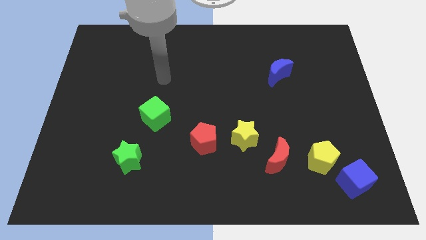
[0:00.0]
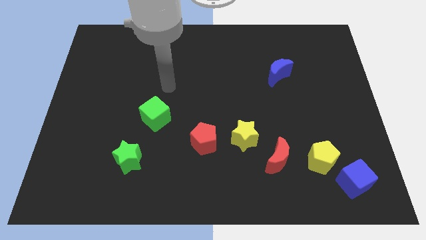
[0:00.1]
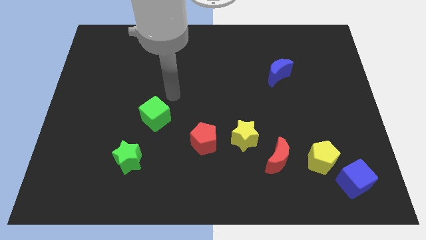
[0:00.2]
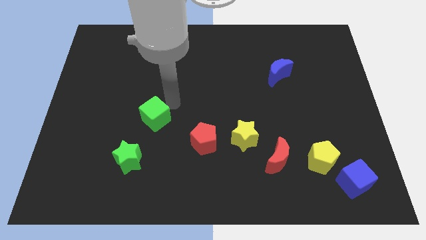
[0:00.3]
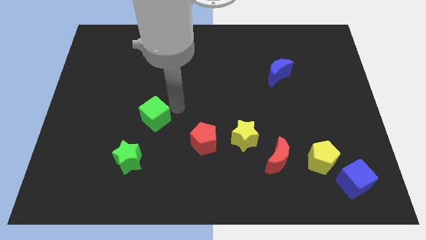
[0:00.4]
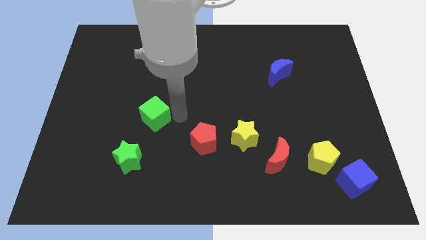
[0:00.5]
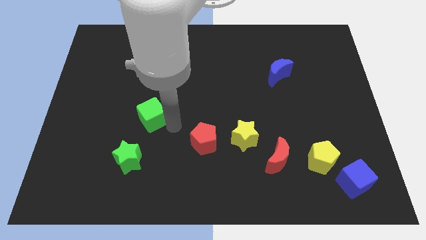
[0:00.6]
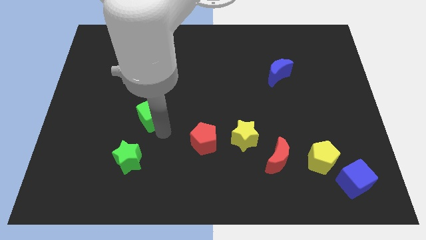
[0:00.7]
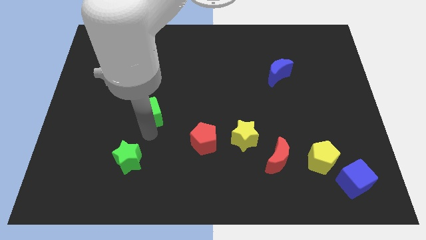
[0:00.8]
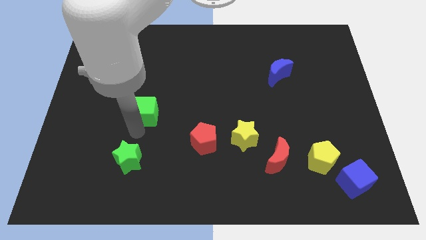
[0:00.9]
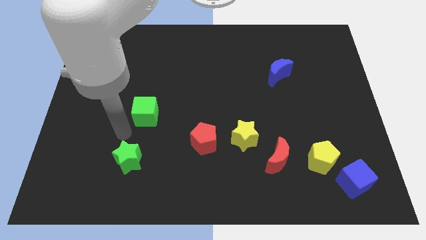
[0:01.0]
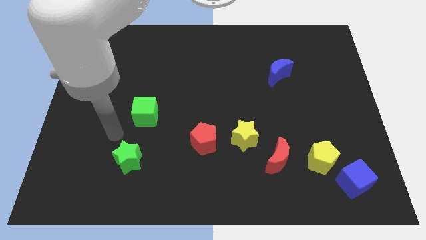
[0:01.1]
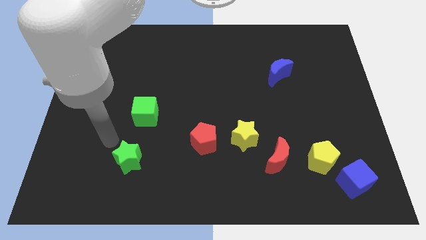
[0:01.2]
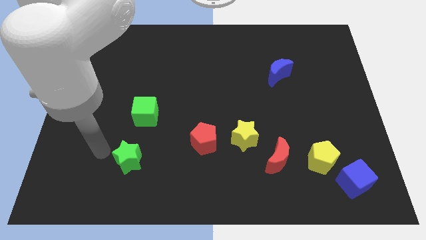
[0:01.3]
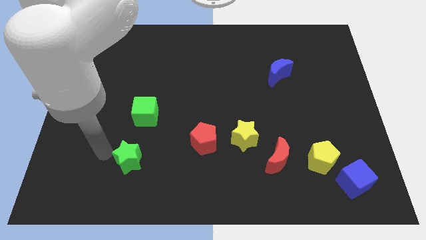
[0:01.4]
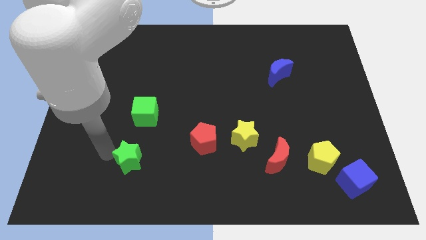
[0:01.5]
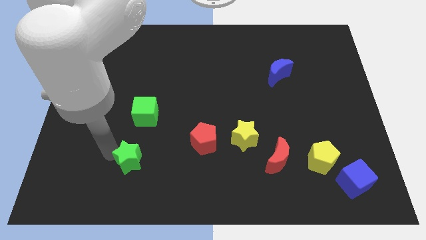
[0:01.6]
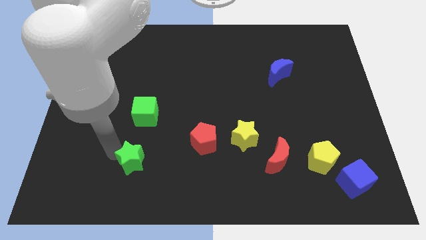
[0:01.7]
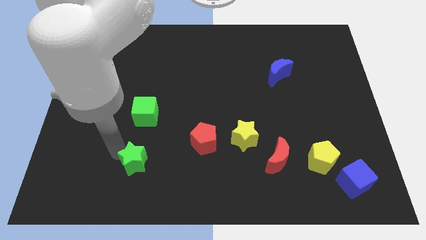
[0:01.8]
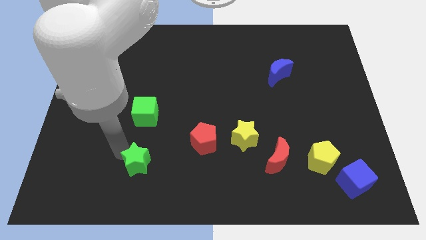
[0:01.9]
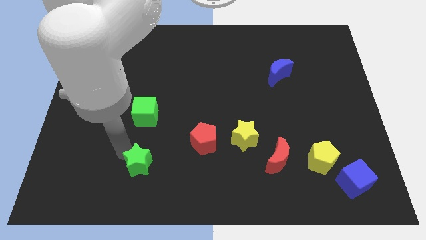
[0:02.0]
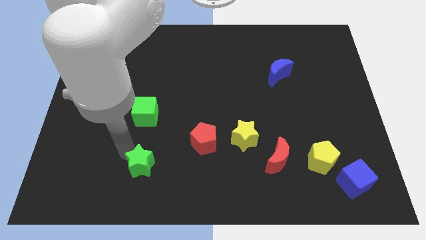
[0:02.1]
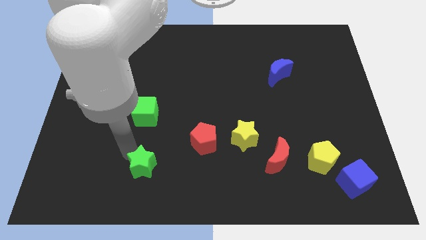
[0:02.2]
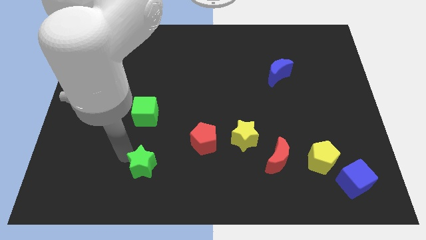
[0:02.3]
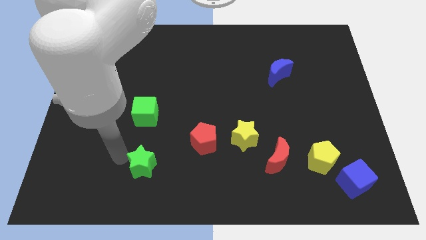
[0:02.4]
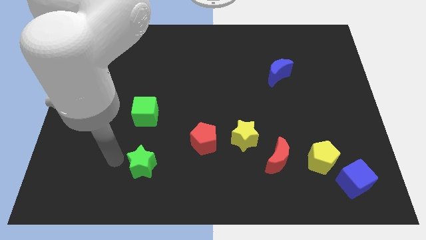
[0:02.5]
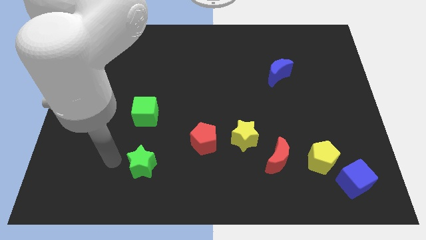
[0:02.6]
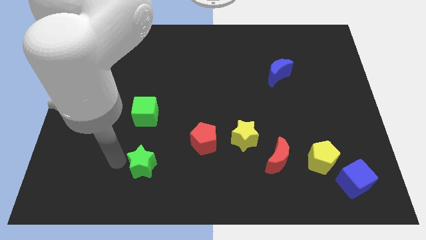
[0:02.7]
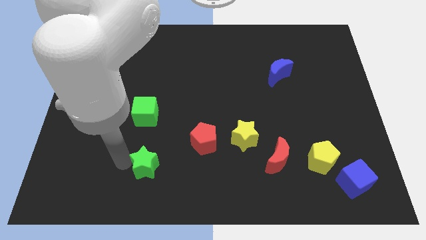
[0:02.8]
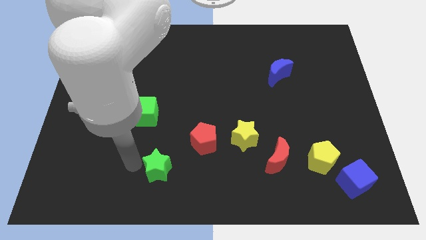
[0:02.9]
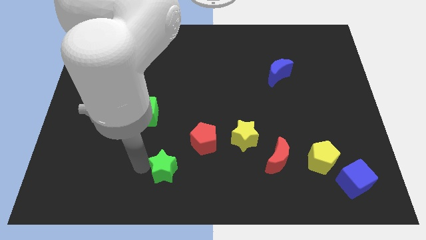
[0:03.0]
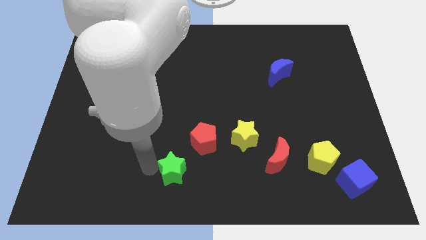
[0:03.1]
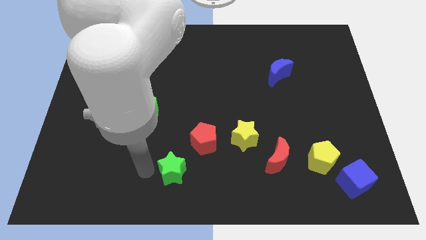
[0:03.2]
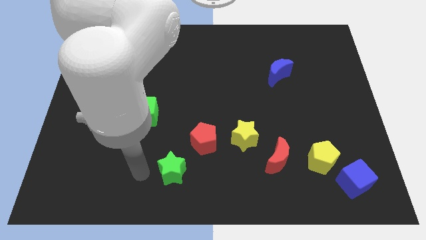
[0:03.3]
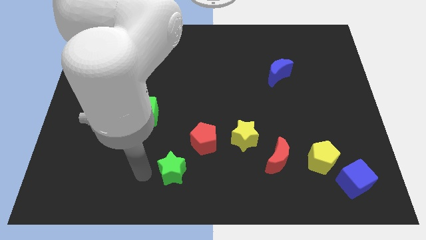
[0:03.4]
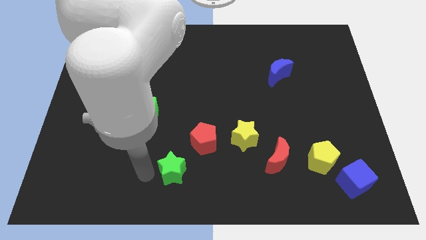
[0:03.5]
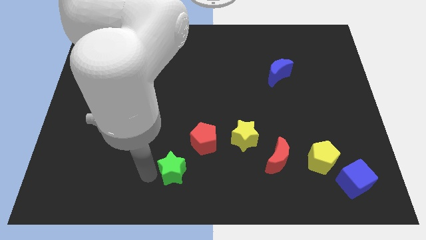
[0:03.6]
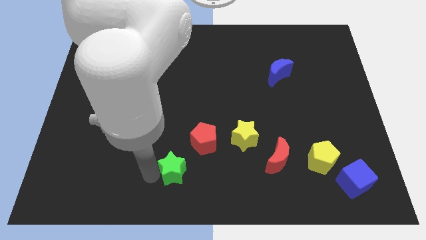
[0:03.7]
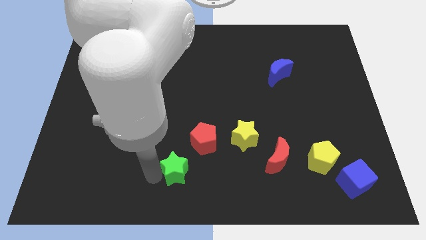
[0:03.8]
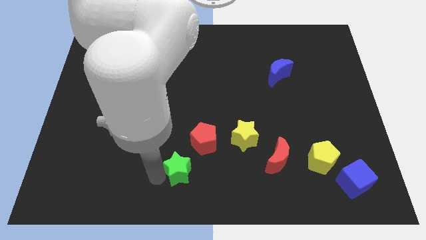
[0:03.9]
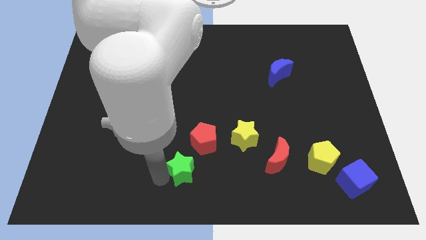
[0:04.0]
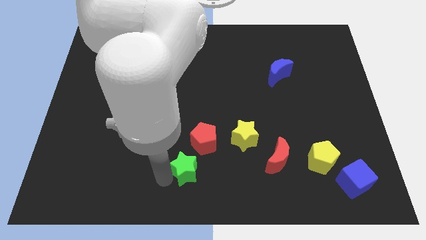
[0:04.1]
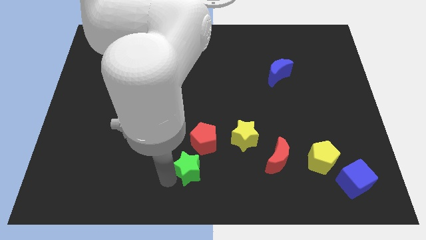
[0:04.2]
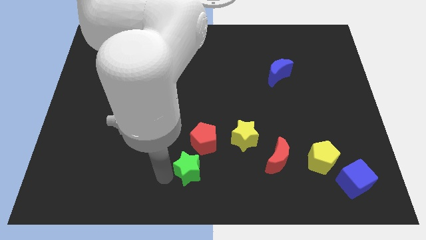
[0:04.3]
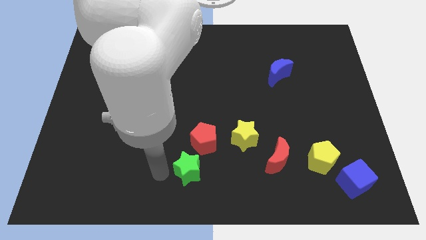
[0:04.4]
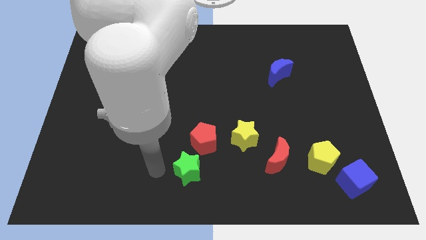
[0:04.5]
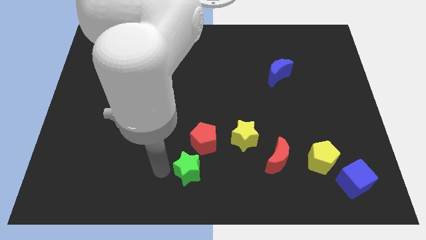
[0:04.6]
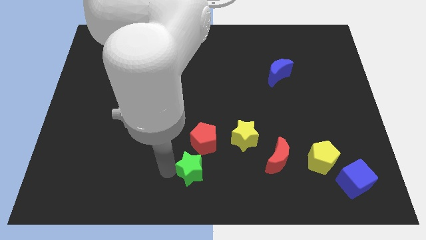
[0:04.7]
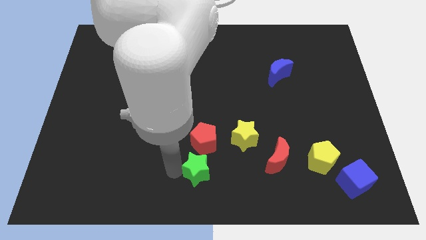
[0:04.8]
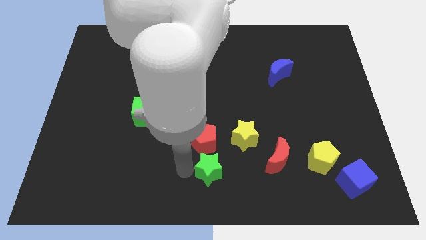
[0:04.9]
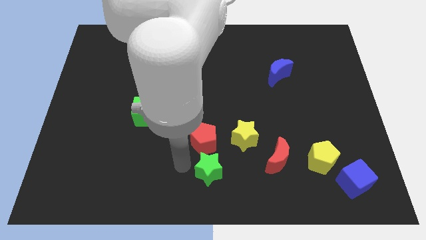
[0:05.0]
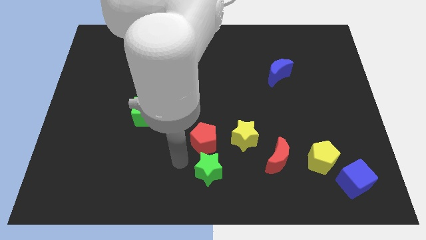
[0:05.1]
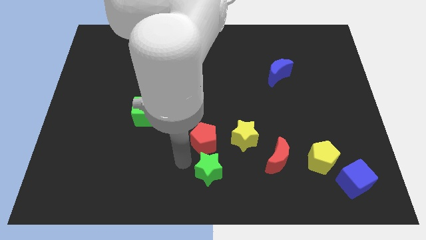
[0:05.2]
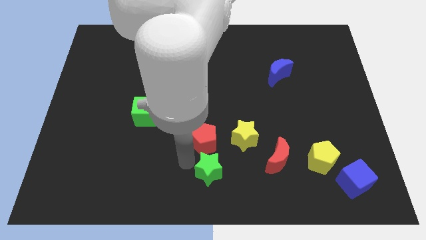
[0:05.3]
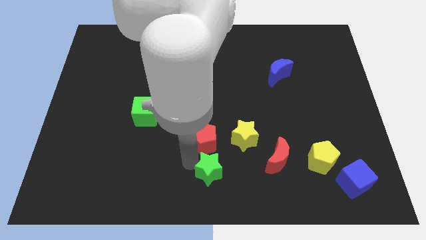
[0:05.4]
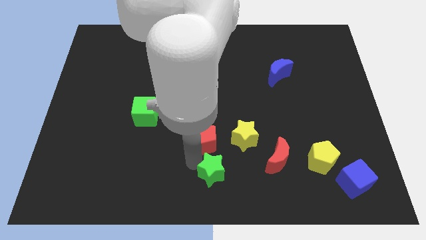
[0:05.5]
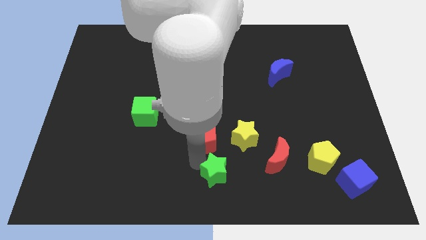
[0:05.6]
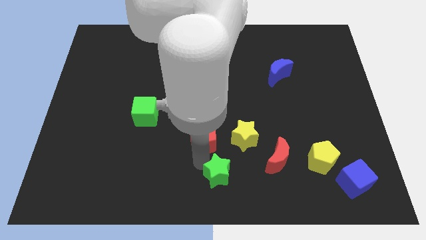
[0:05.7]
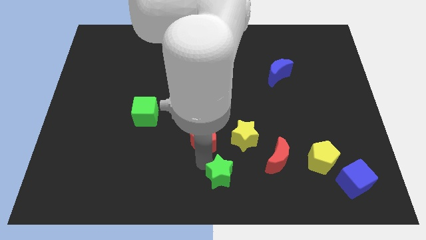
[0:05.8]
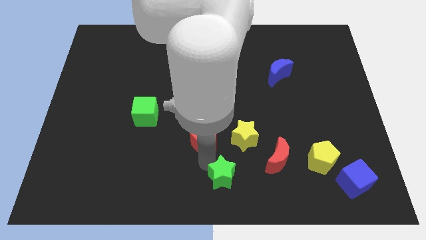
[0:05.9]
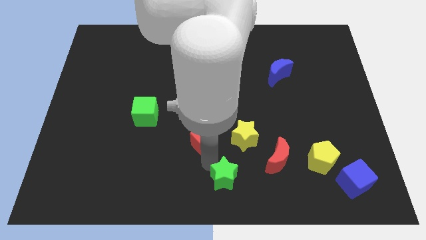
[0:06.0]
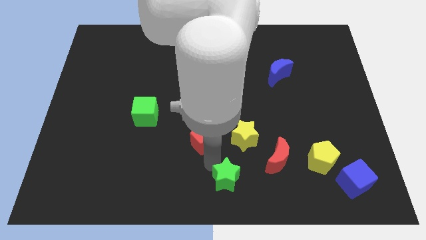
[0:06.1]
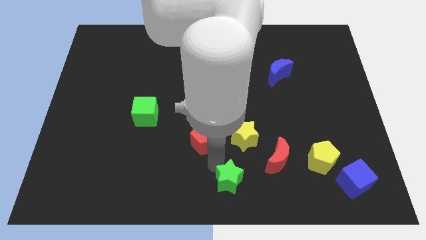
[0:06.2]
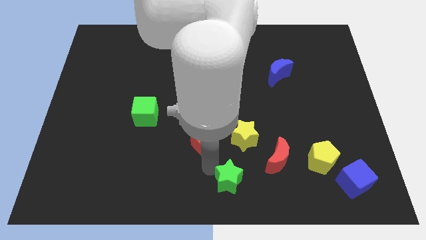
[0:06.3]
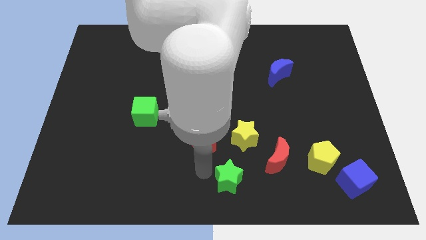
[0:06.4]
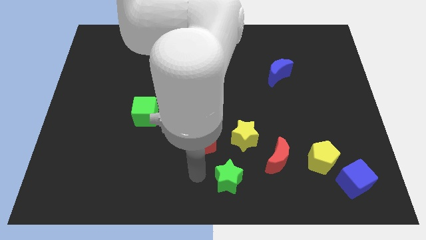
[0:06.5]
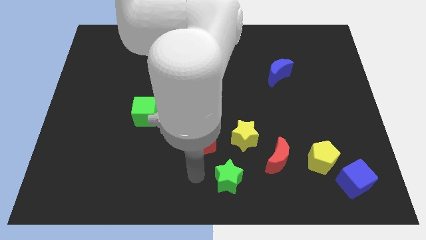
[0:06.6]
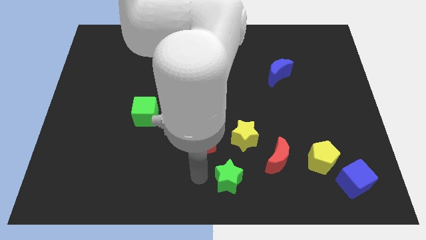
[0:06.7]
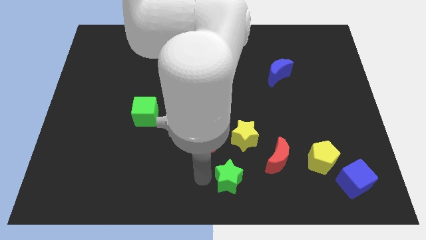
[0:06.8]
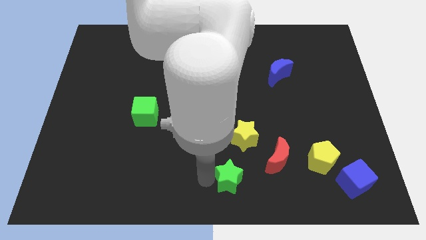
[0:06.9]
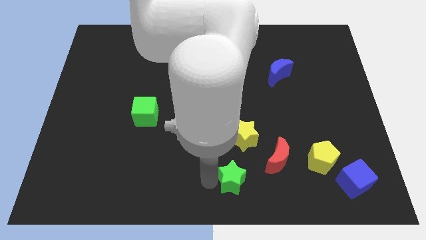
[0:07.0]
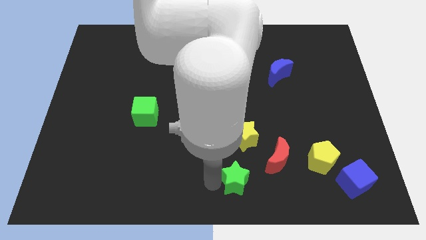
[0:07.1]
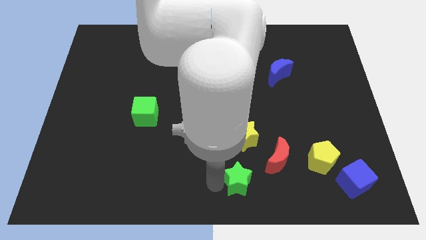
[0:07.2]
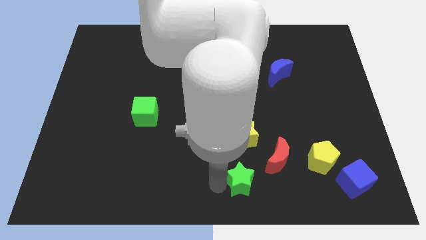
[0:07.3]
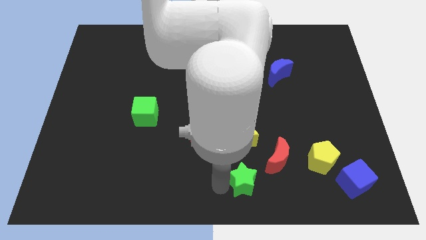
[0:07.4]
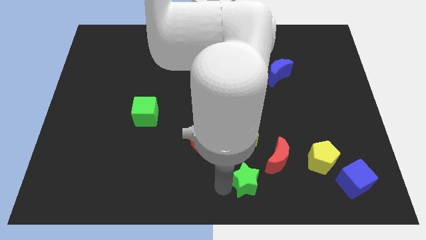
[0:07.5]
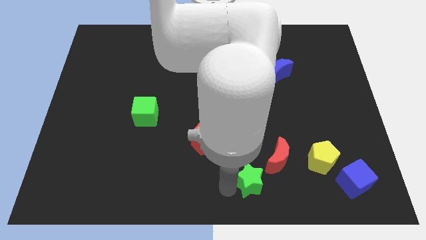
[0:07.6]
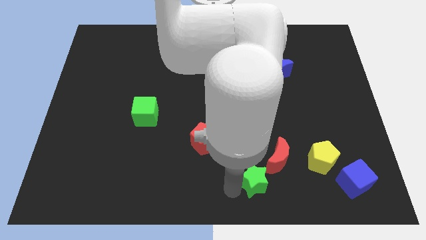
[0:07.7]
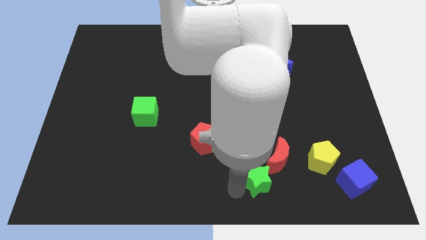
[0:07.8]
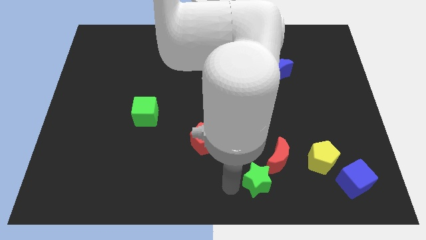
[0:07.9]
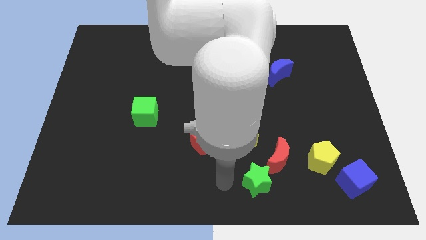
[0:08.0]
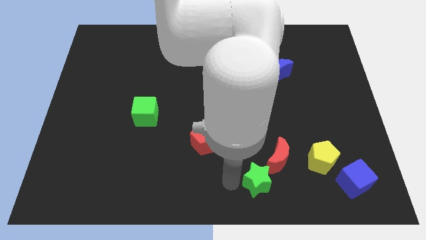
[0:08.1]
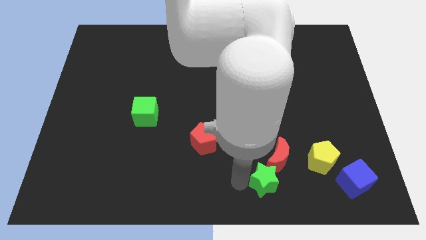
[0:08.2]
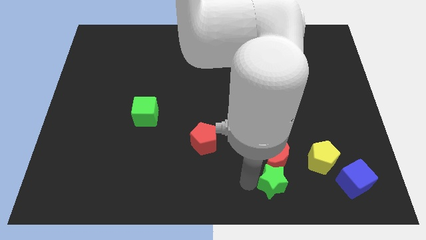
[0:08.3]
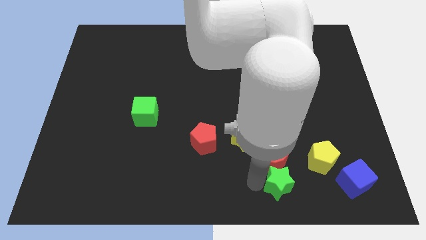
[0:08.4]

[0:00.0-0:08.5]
push the green star to the bottom right of the red moon
